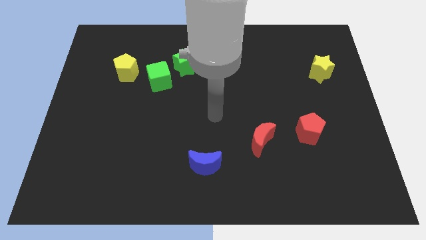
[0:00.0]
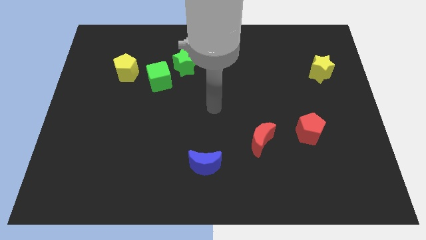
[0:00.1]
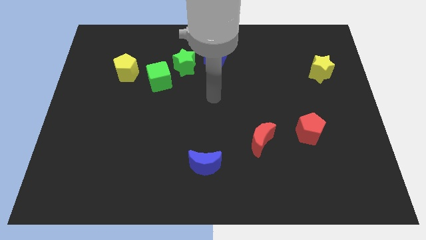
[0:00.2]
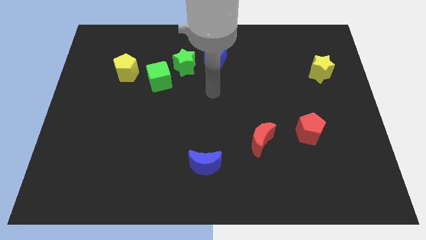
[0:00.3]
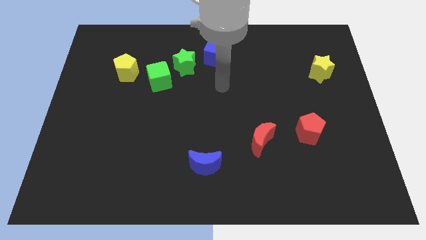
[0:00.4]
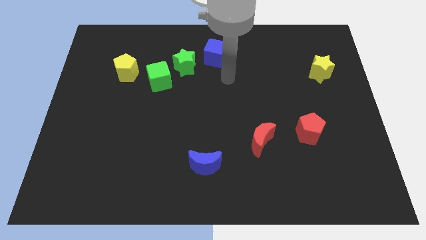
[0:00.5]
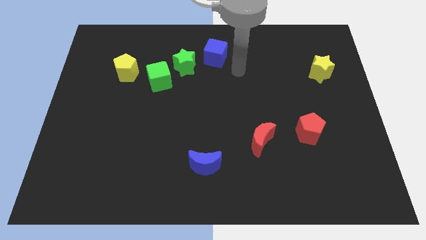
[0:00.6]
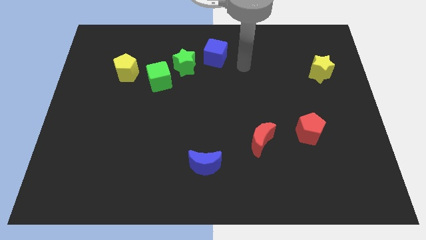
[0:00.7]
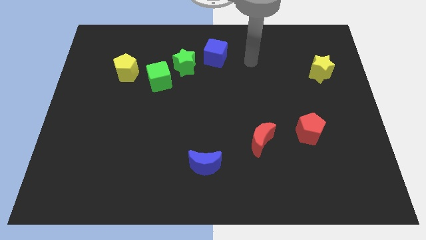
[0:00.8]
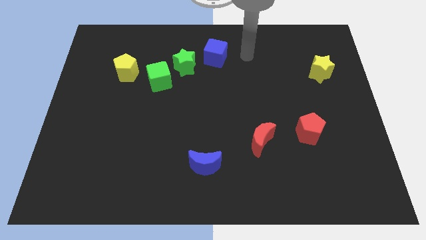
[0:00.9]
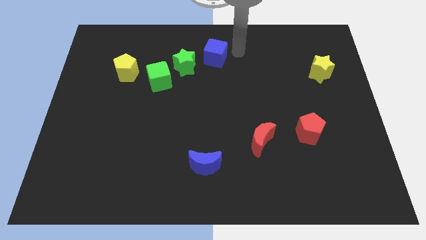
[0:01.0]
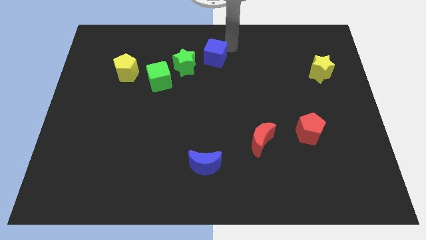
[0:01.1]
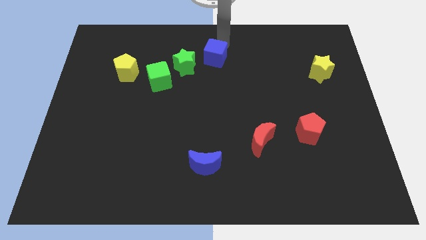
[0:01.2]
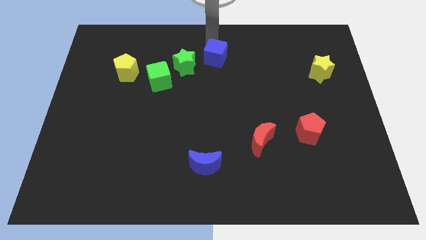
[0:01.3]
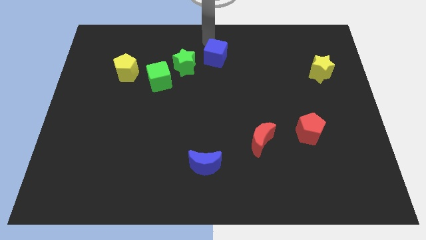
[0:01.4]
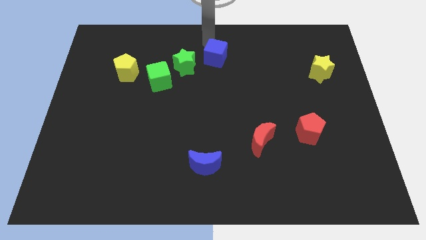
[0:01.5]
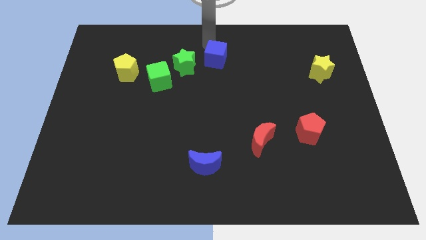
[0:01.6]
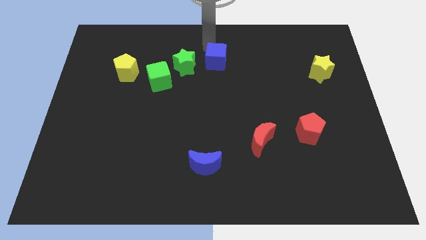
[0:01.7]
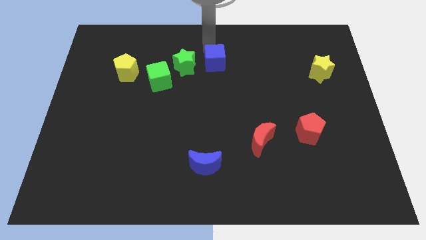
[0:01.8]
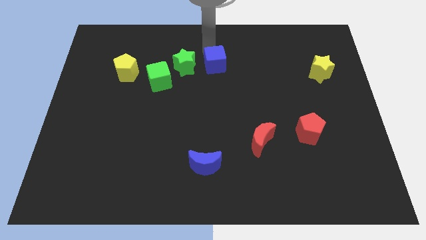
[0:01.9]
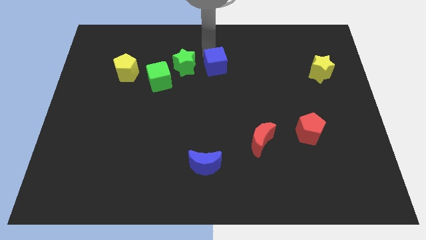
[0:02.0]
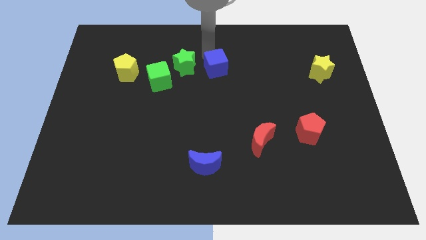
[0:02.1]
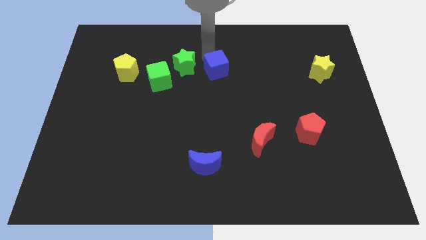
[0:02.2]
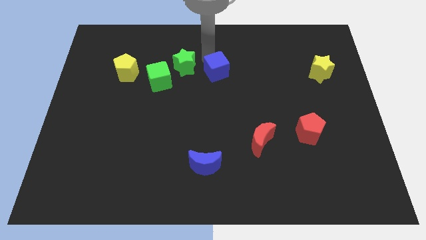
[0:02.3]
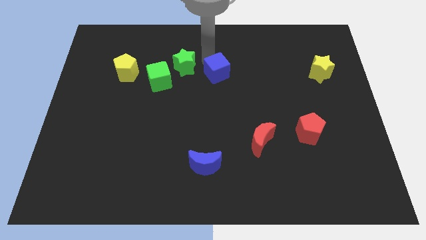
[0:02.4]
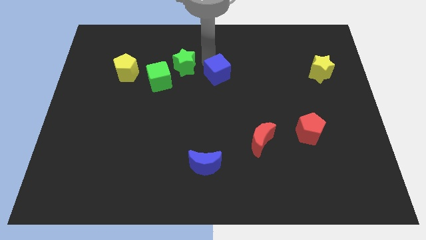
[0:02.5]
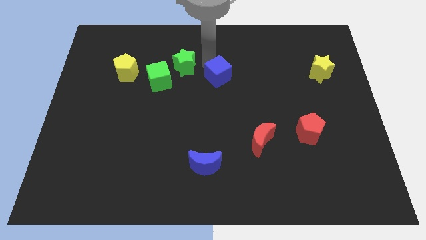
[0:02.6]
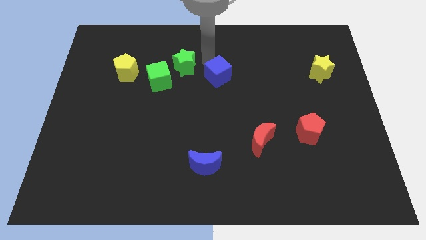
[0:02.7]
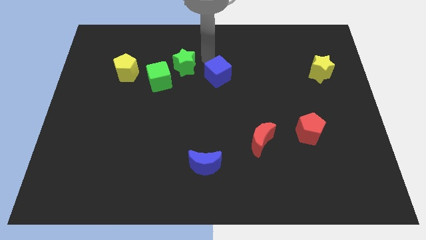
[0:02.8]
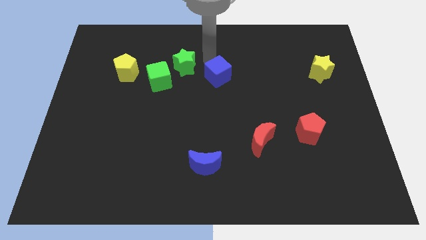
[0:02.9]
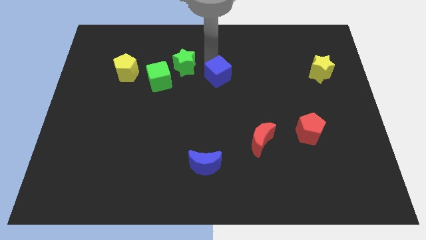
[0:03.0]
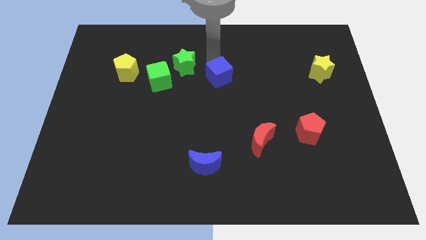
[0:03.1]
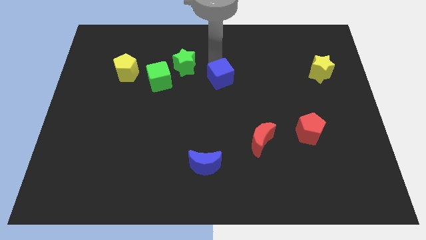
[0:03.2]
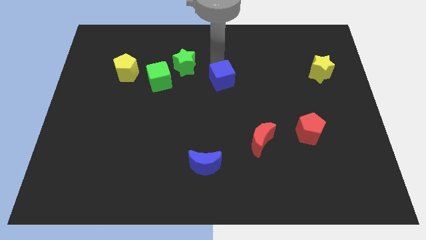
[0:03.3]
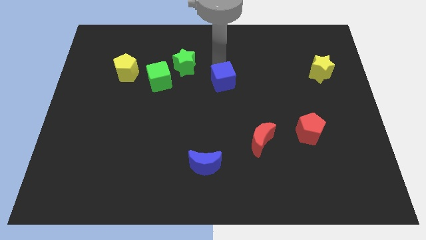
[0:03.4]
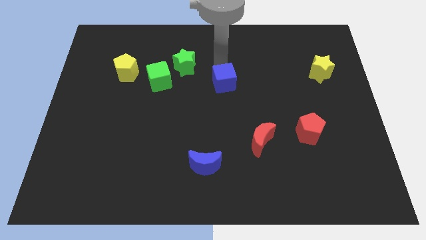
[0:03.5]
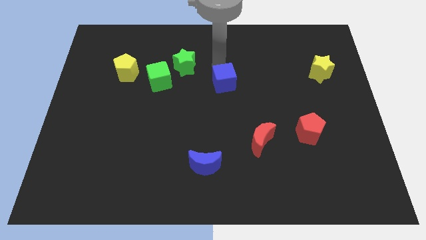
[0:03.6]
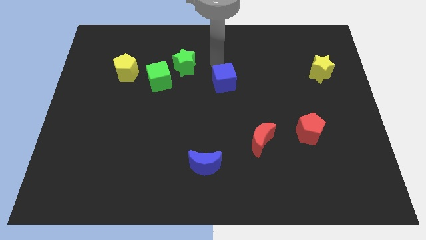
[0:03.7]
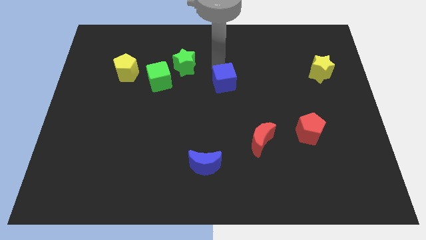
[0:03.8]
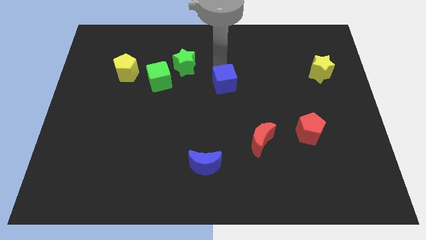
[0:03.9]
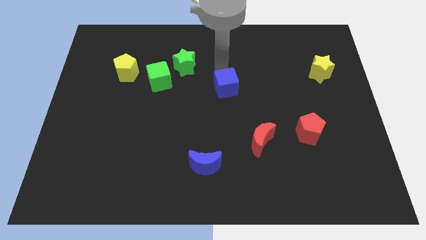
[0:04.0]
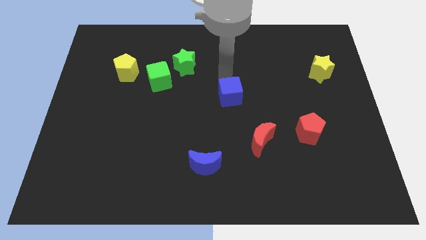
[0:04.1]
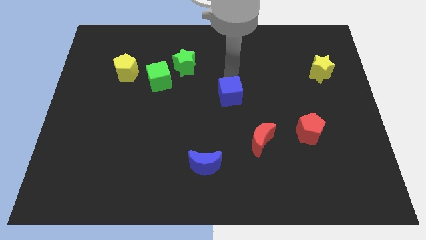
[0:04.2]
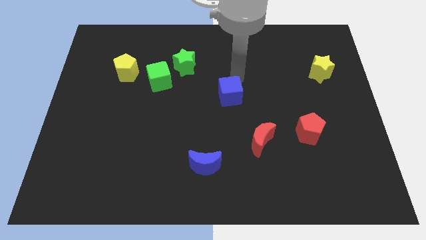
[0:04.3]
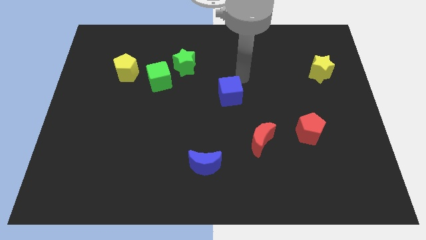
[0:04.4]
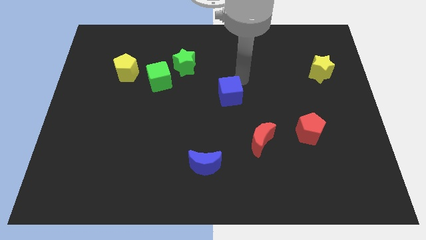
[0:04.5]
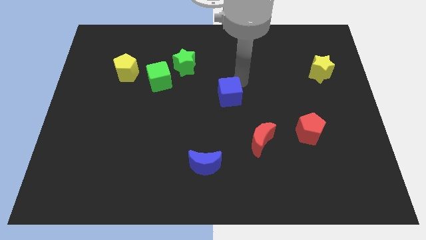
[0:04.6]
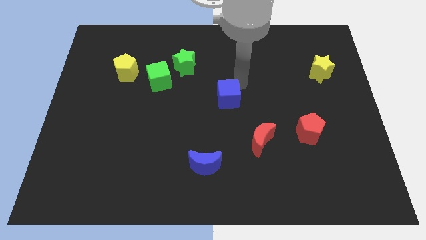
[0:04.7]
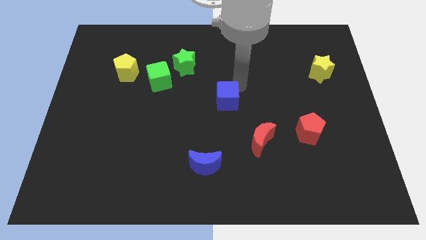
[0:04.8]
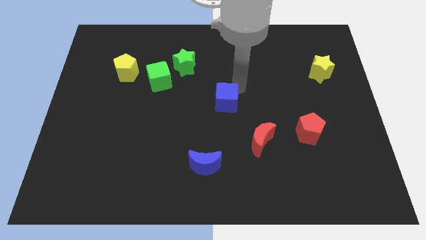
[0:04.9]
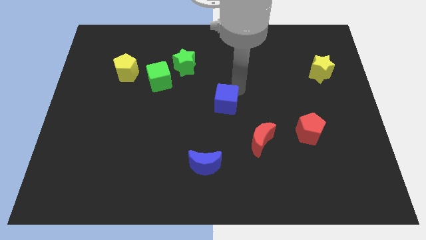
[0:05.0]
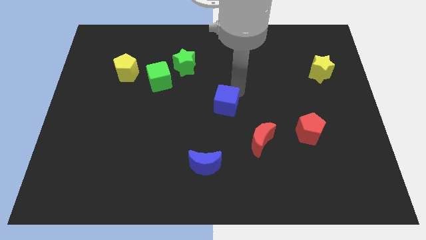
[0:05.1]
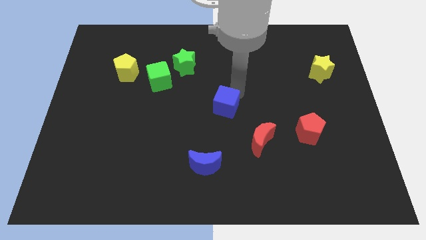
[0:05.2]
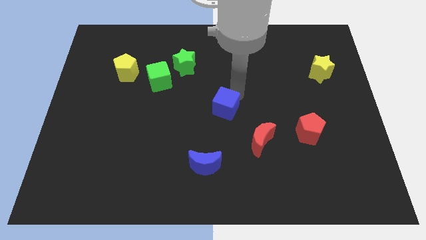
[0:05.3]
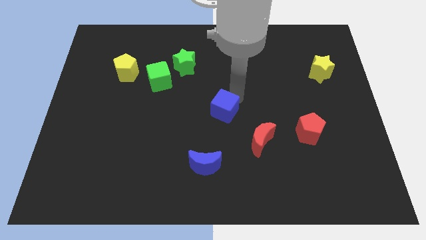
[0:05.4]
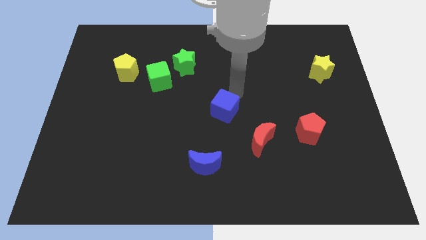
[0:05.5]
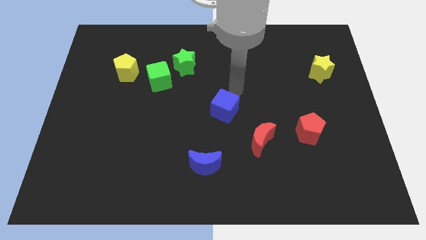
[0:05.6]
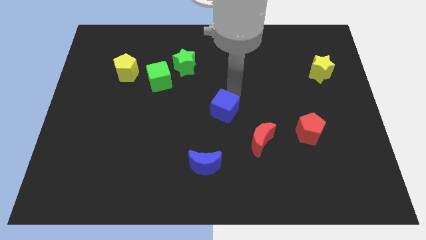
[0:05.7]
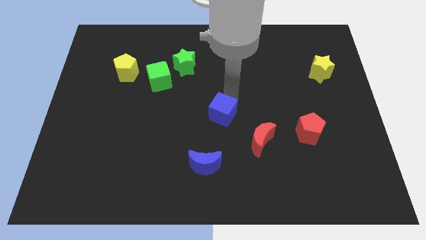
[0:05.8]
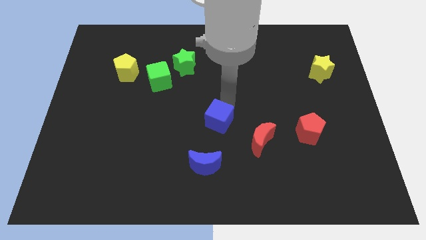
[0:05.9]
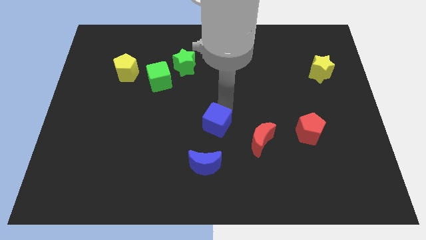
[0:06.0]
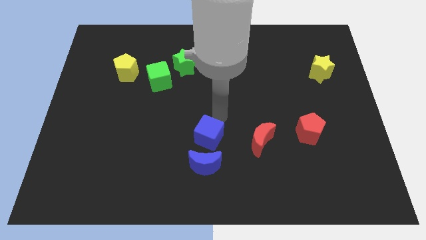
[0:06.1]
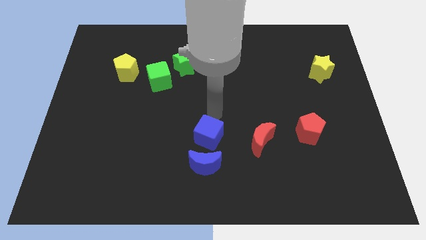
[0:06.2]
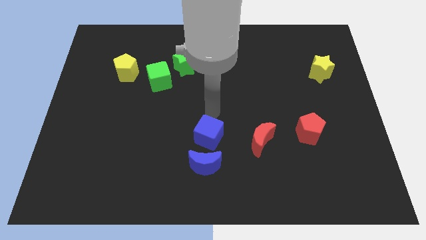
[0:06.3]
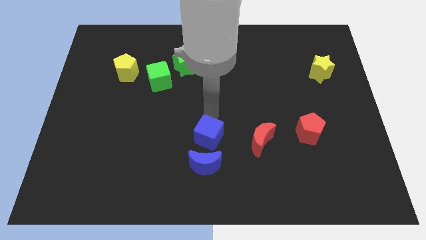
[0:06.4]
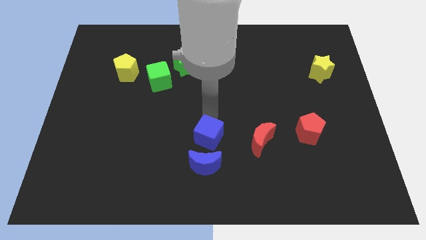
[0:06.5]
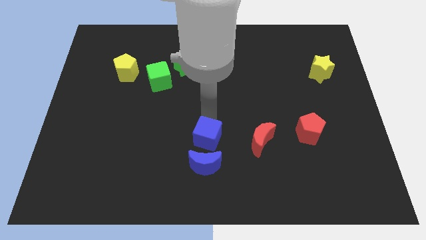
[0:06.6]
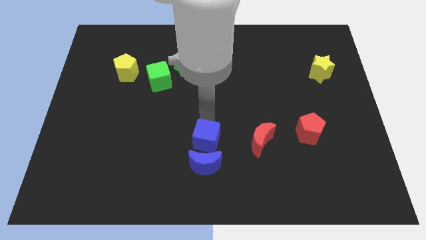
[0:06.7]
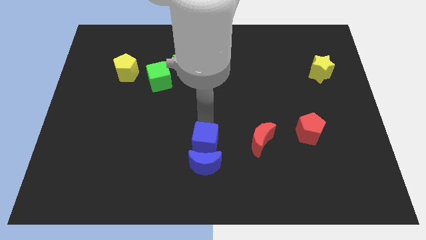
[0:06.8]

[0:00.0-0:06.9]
push the blue cube to the blue moon

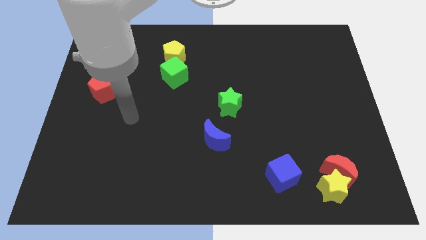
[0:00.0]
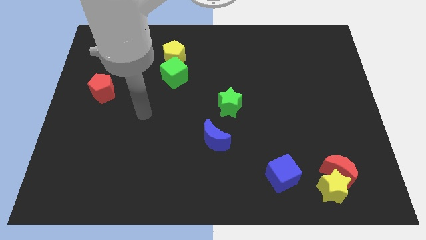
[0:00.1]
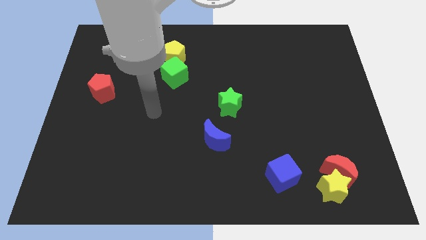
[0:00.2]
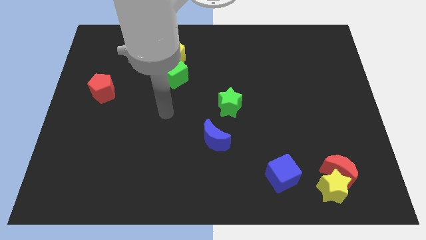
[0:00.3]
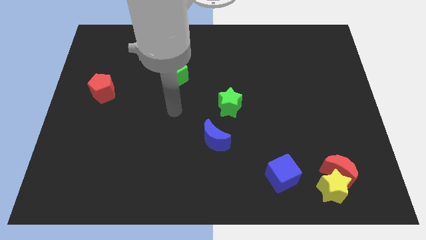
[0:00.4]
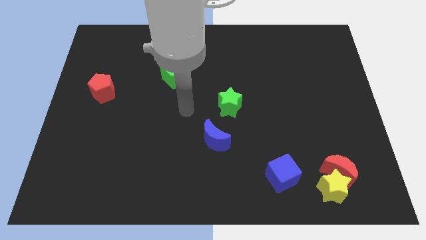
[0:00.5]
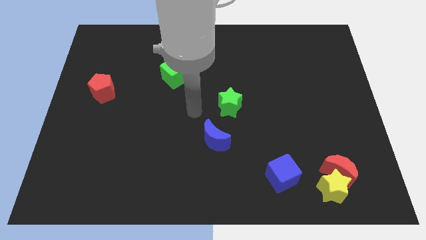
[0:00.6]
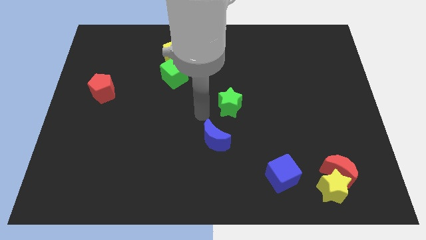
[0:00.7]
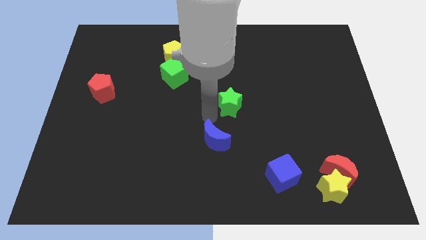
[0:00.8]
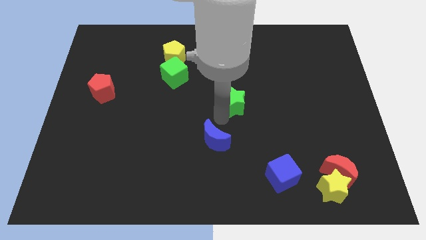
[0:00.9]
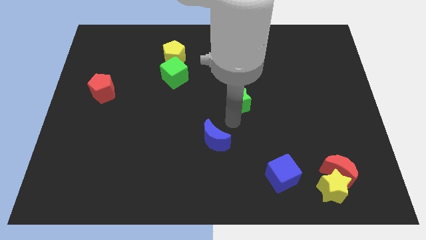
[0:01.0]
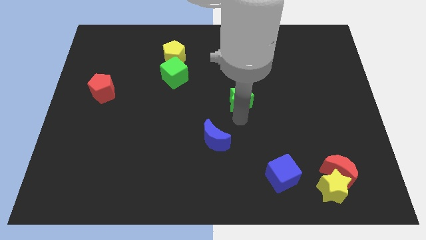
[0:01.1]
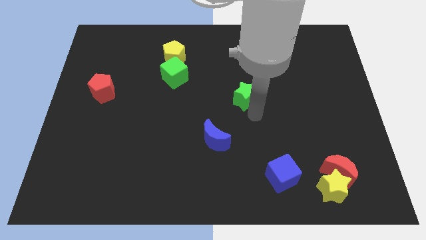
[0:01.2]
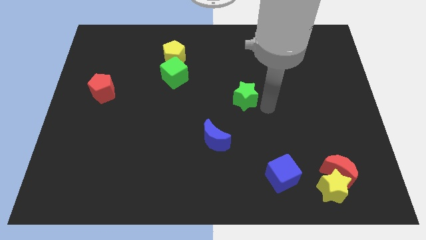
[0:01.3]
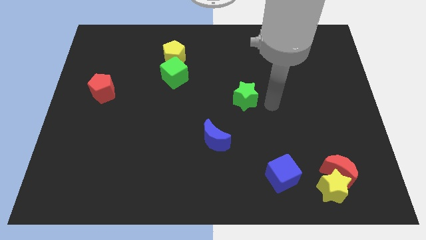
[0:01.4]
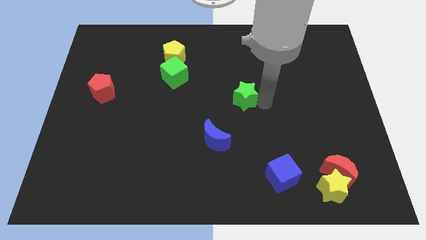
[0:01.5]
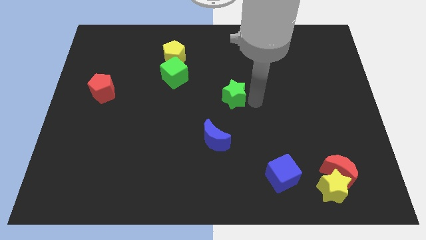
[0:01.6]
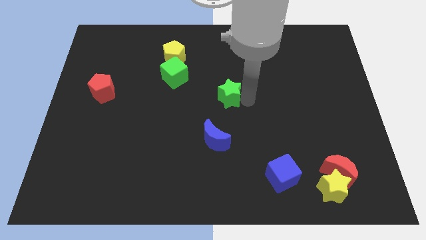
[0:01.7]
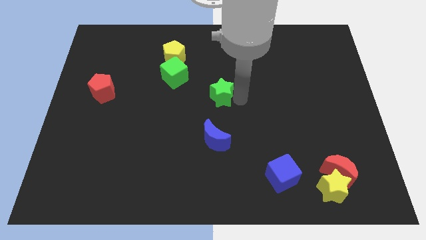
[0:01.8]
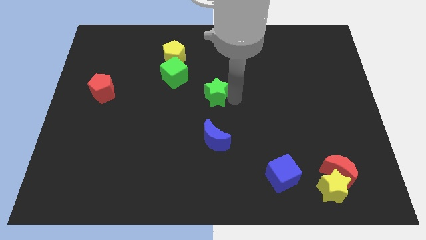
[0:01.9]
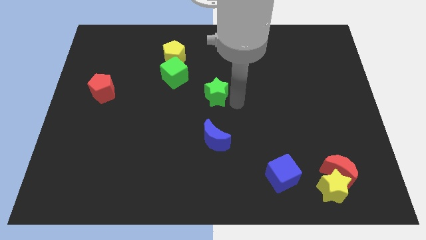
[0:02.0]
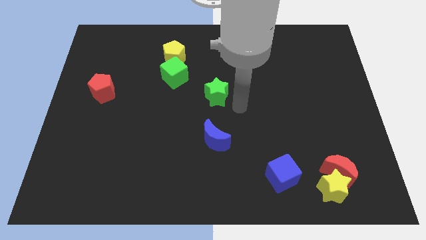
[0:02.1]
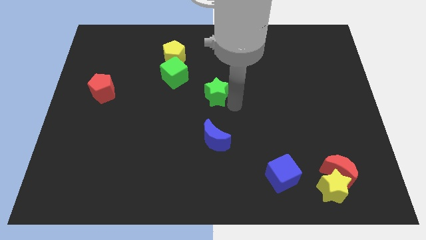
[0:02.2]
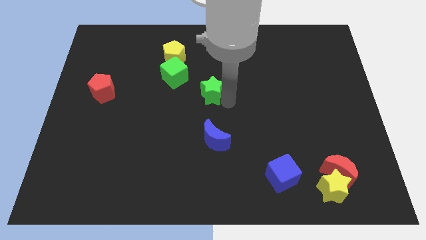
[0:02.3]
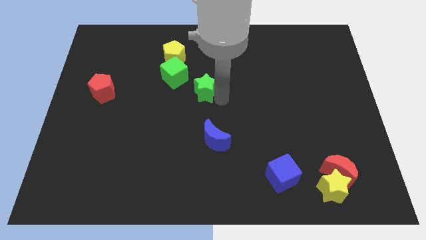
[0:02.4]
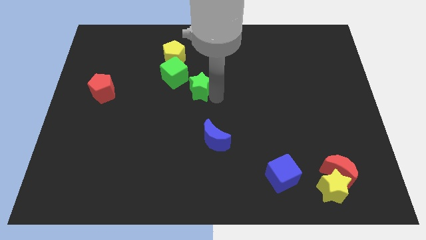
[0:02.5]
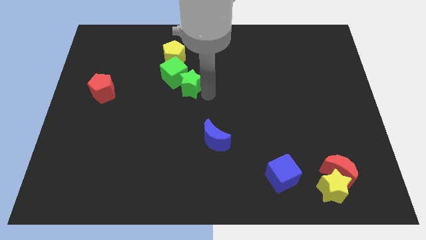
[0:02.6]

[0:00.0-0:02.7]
slide the green star to the green cube
